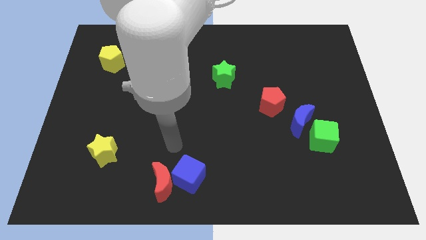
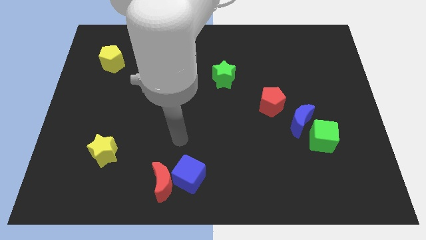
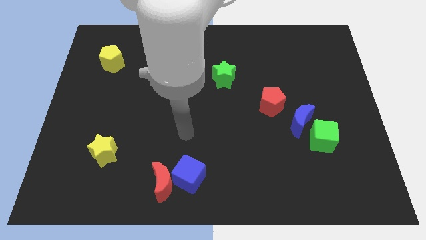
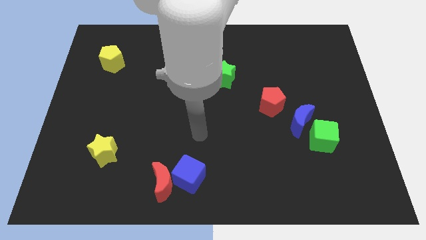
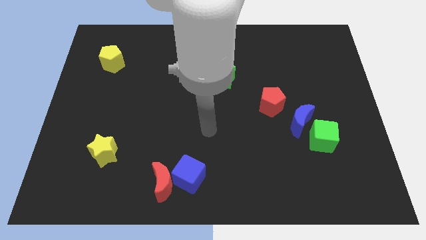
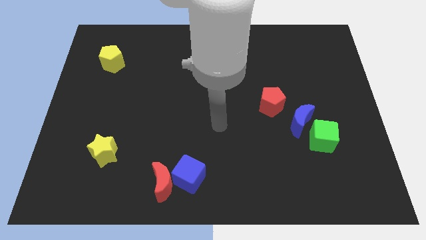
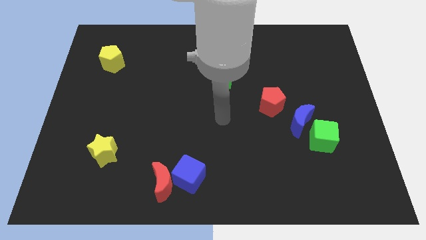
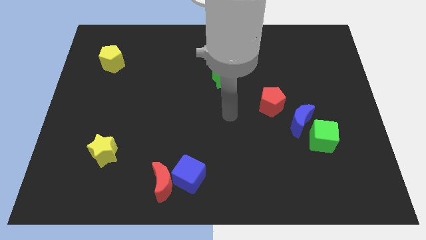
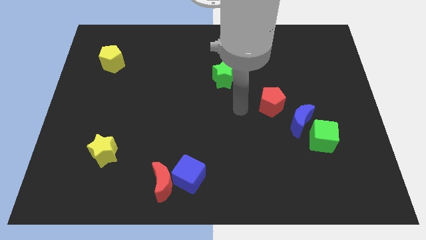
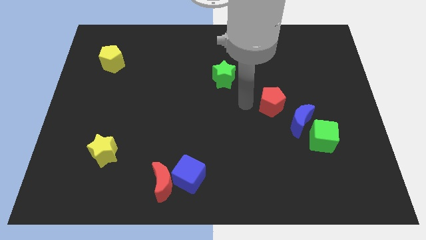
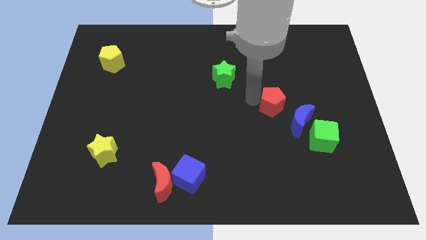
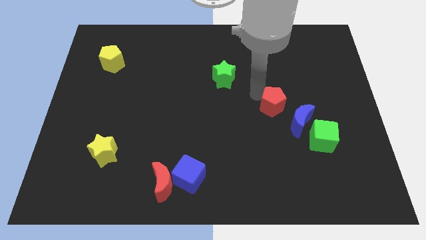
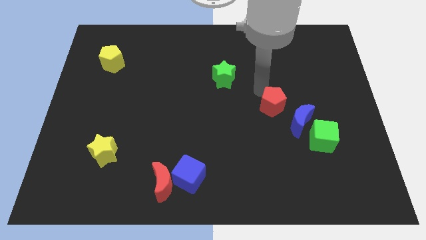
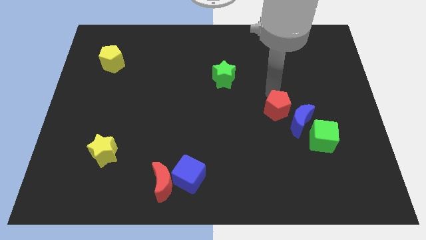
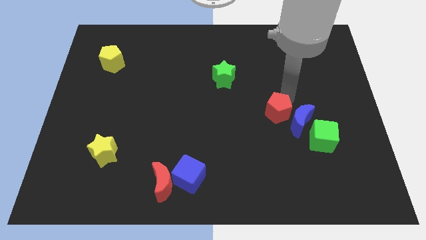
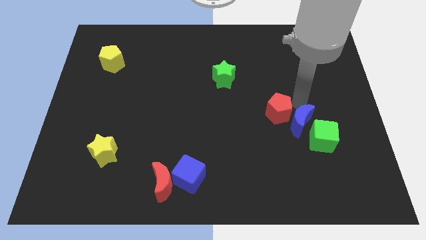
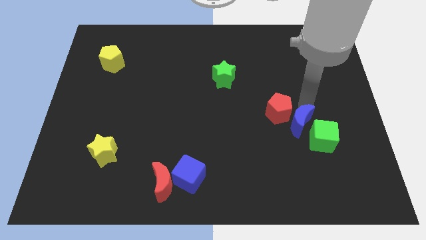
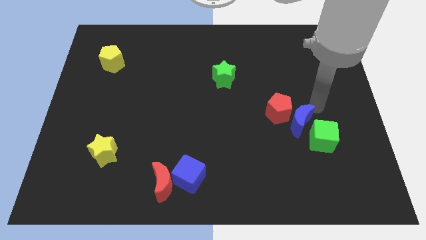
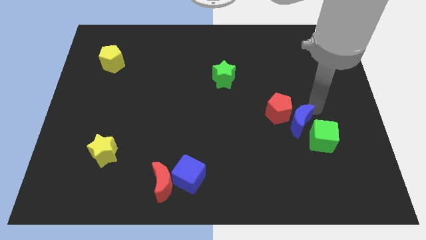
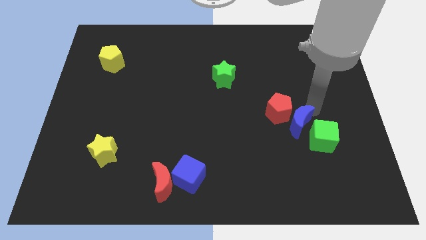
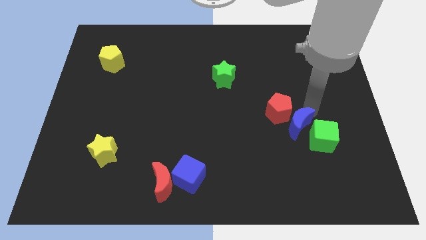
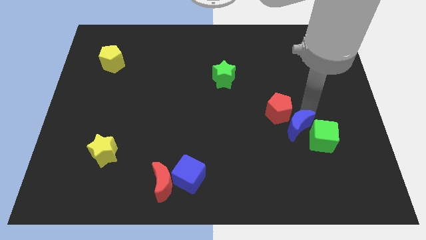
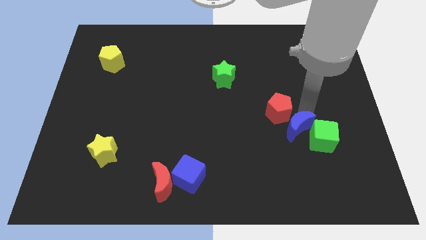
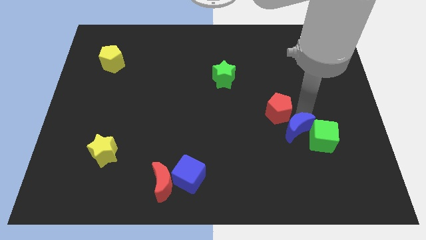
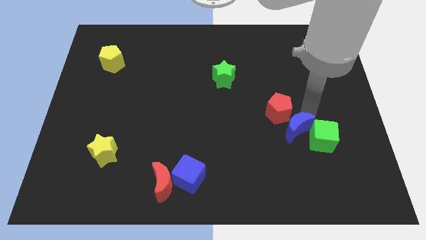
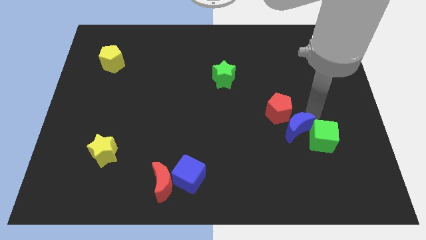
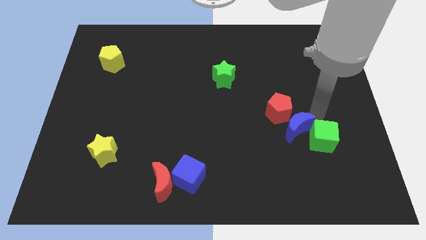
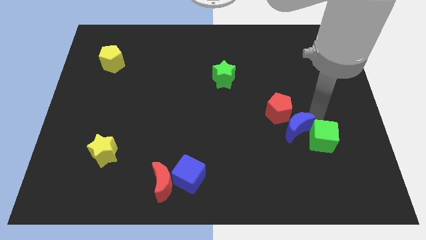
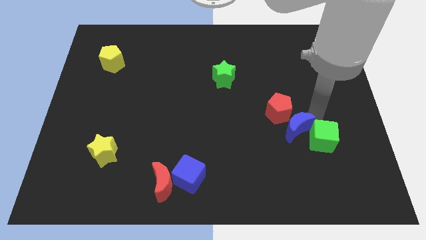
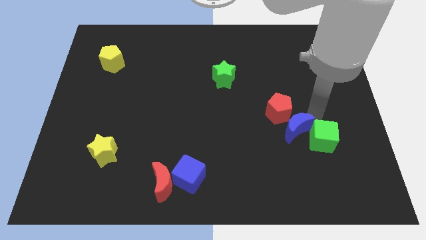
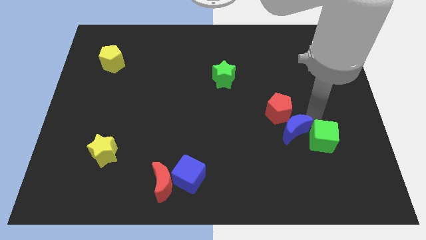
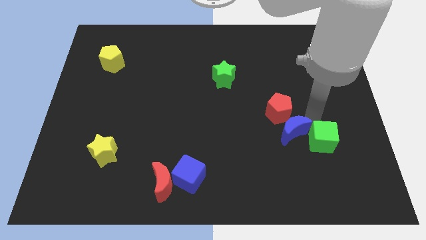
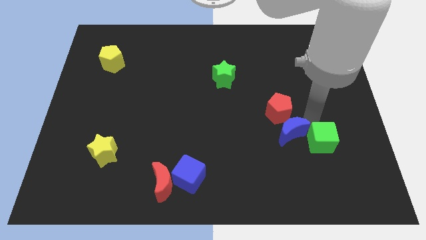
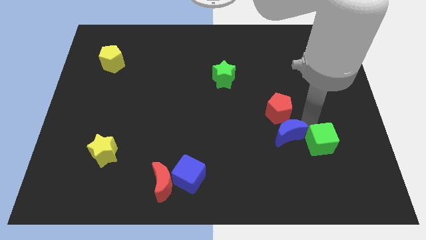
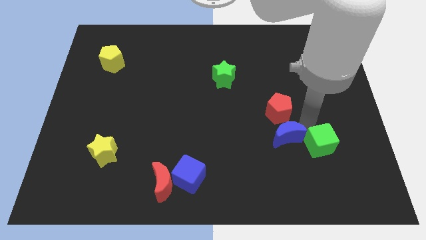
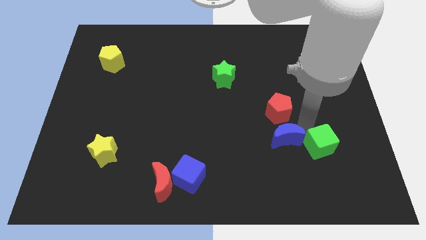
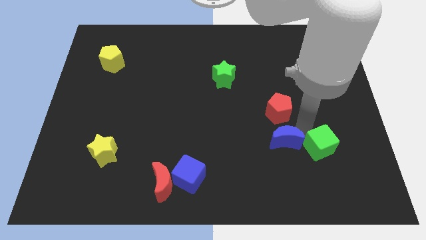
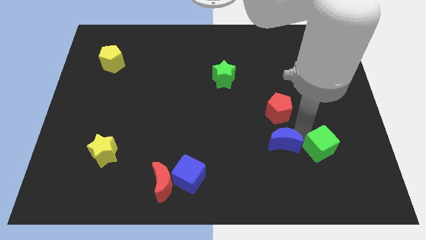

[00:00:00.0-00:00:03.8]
move the blue moon somewhat down and then to the left

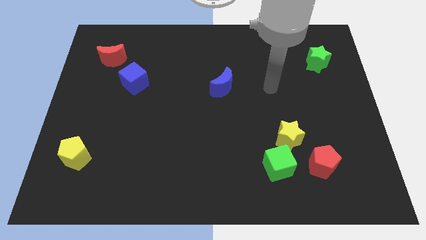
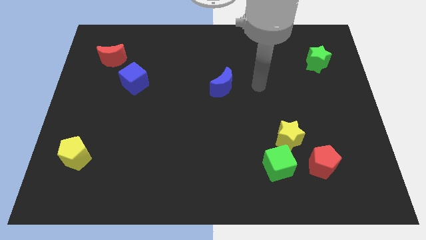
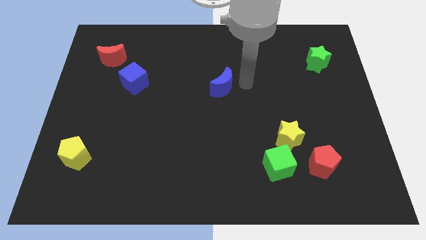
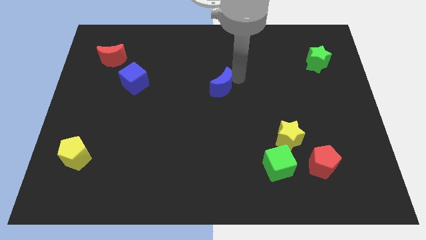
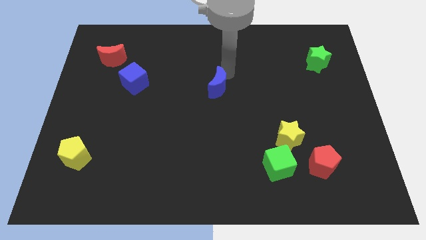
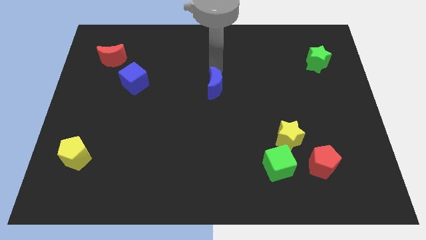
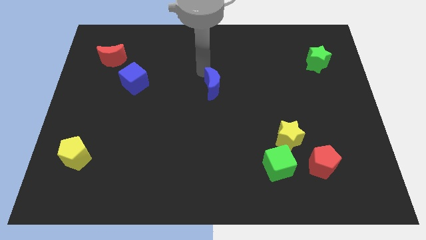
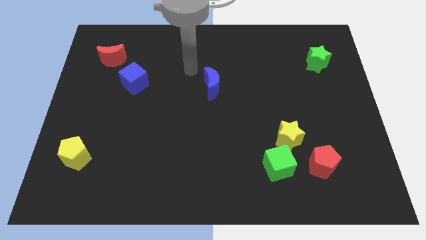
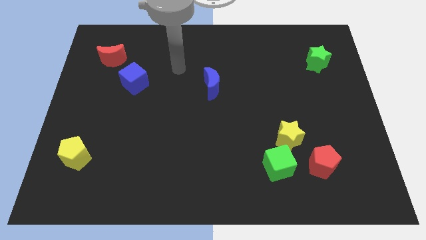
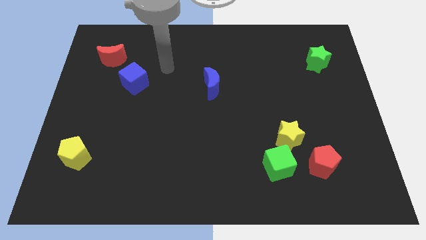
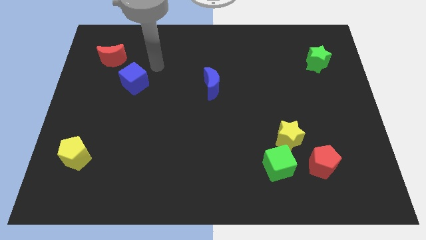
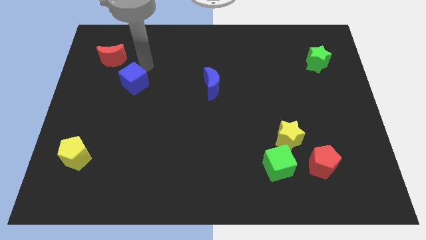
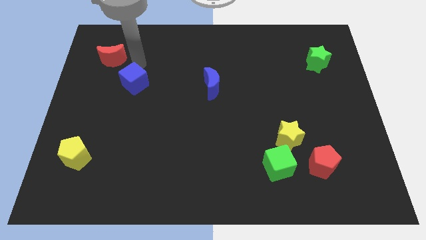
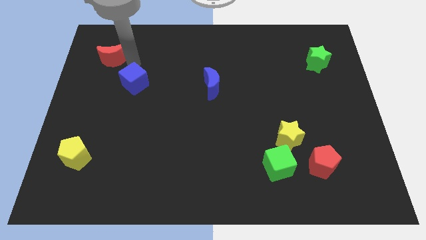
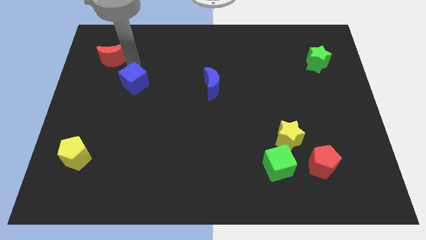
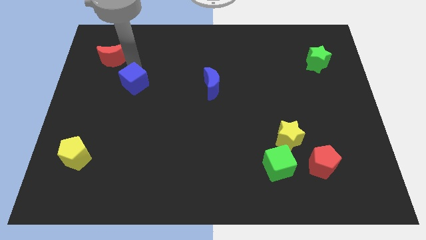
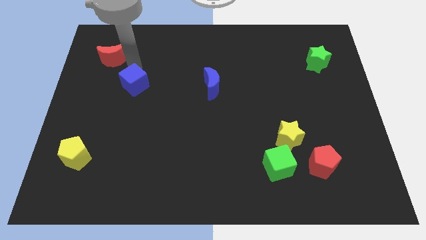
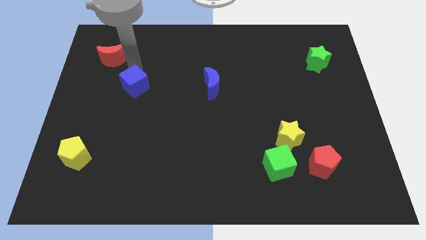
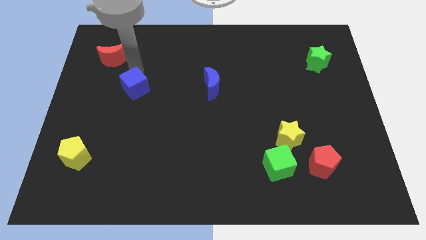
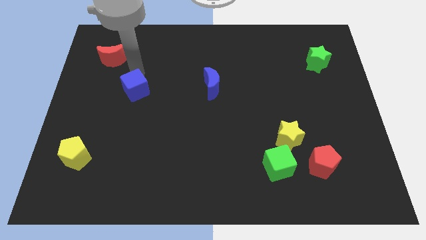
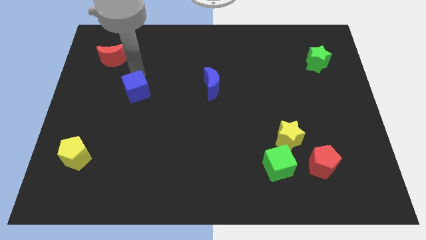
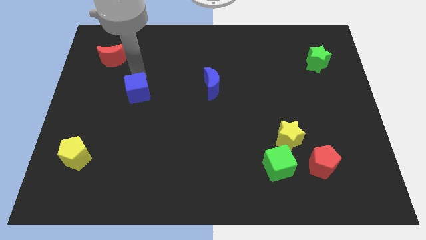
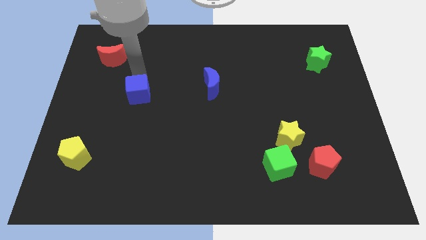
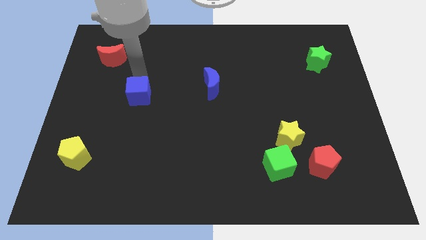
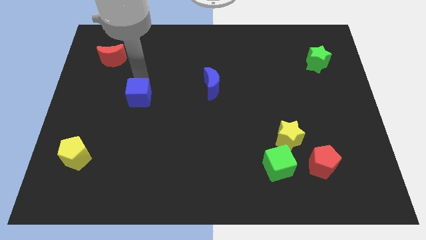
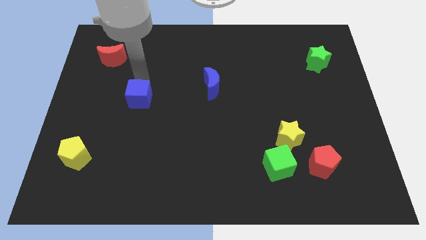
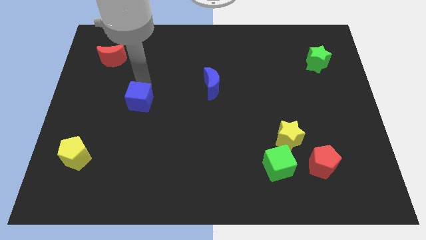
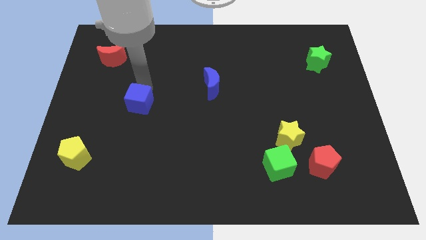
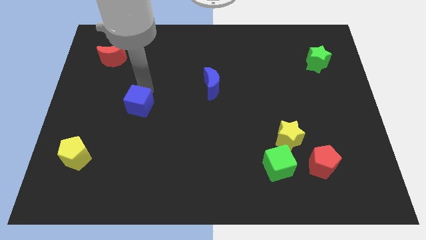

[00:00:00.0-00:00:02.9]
slide the blue cube downwards somewhat

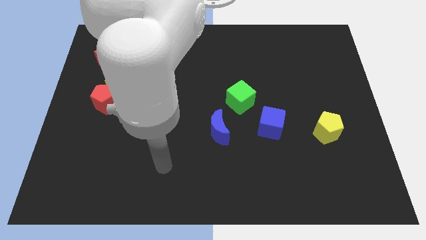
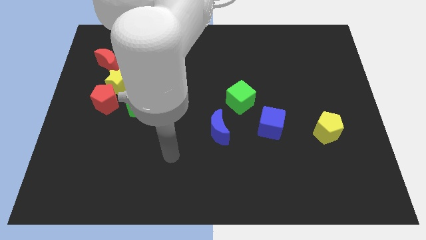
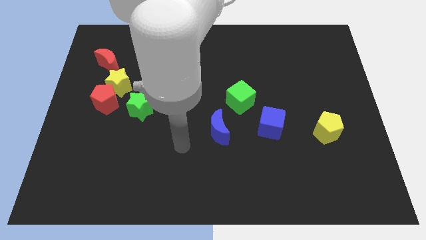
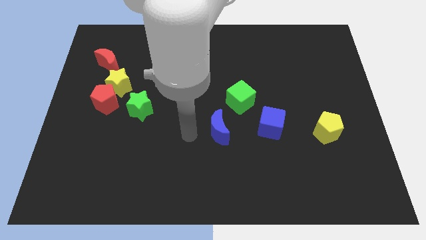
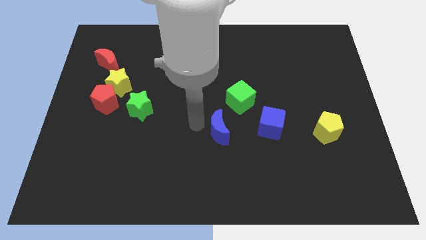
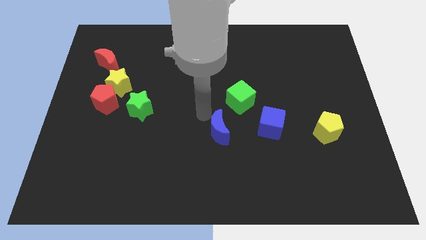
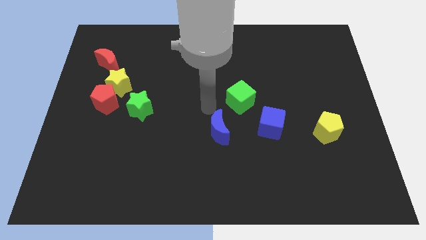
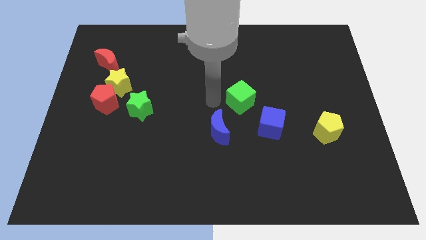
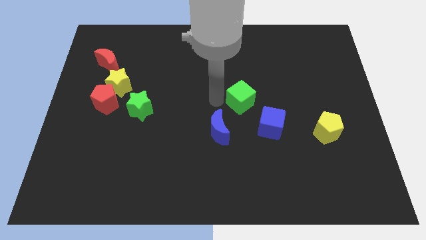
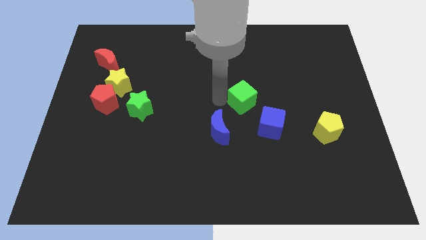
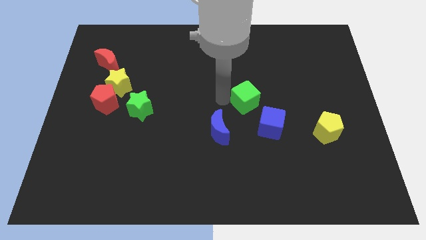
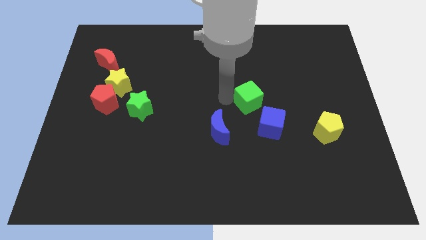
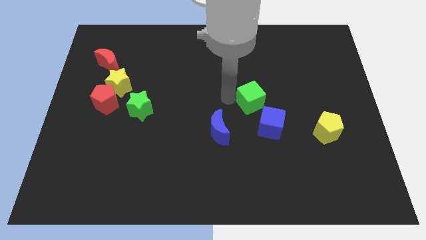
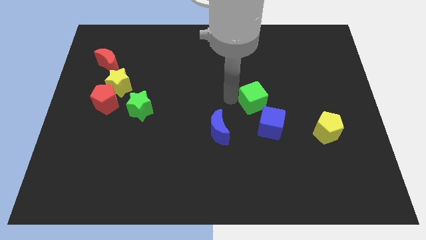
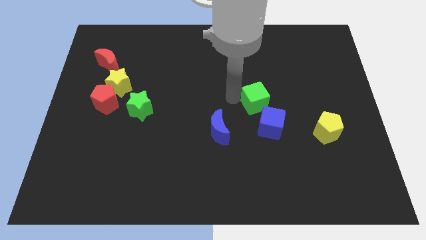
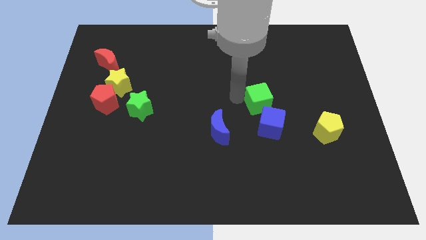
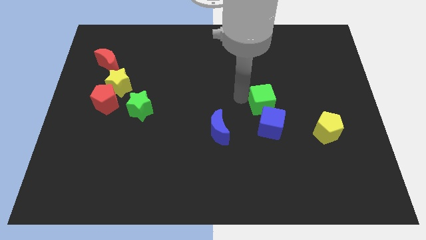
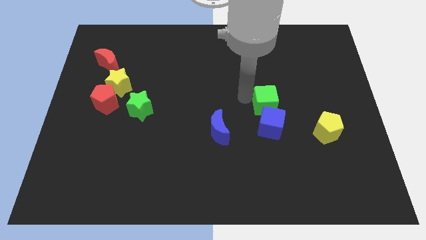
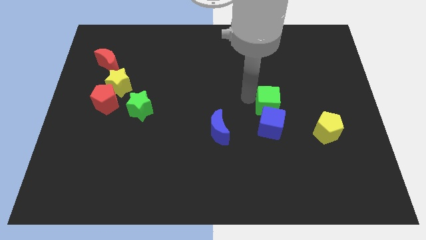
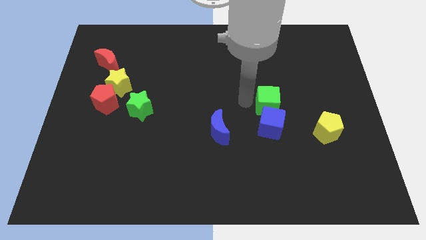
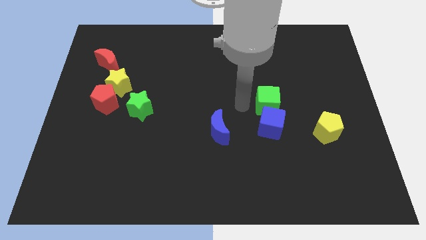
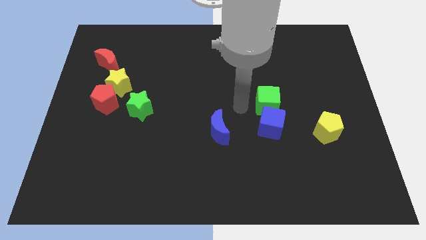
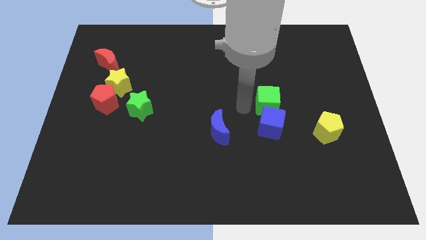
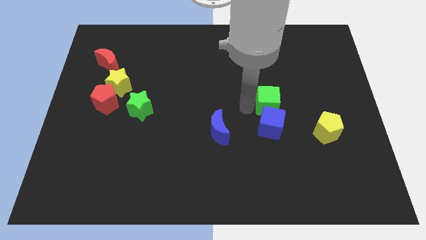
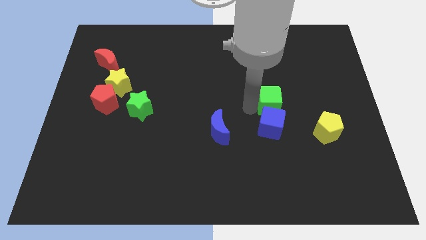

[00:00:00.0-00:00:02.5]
slightly slide the green cube to the right
